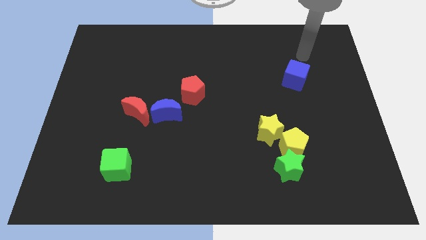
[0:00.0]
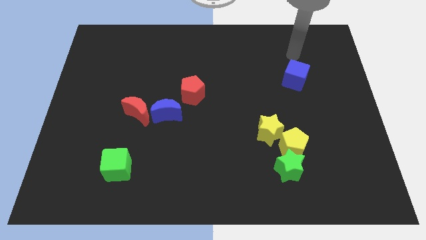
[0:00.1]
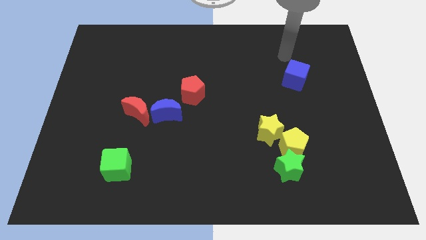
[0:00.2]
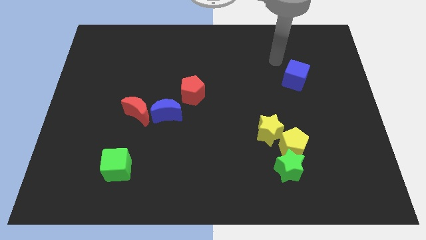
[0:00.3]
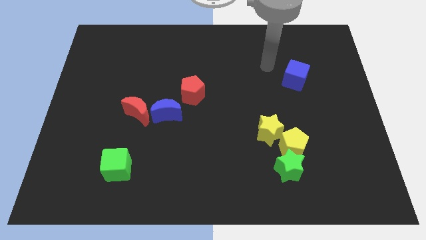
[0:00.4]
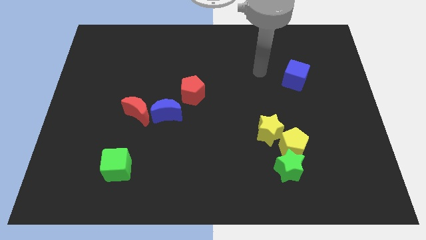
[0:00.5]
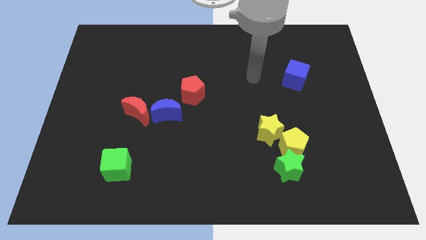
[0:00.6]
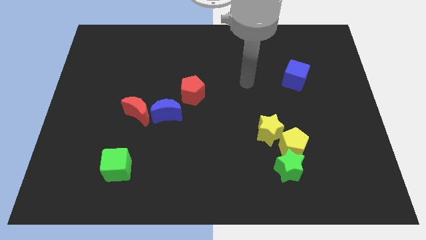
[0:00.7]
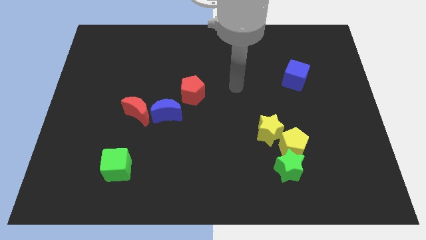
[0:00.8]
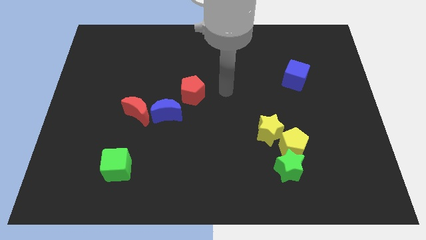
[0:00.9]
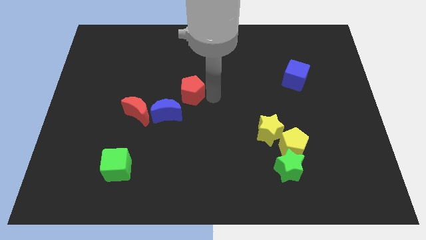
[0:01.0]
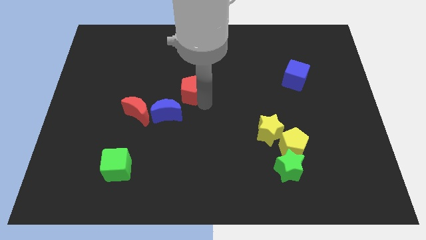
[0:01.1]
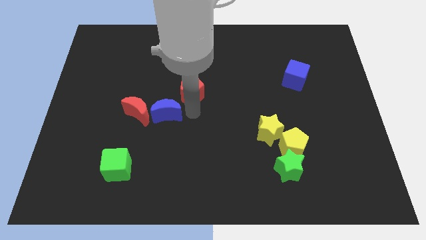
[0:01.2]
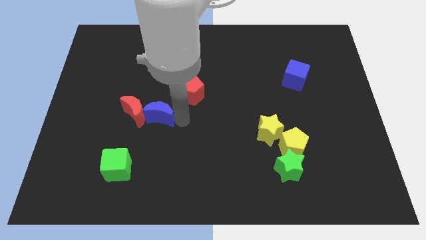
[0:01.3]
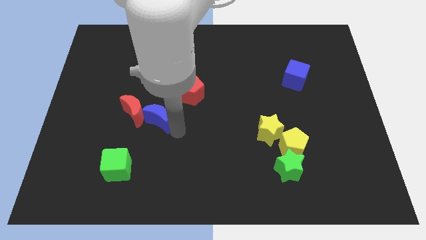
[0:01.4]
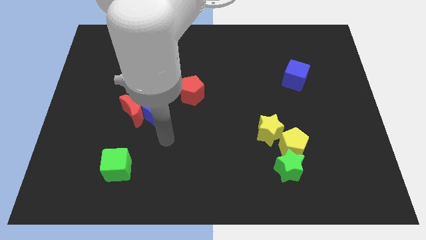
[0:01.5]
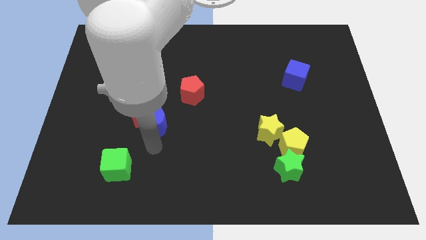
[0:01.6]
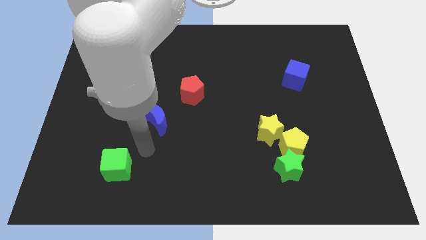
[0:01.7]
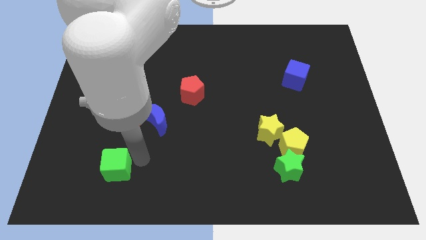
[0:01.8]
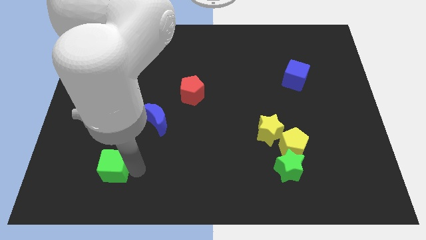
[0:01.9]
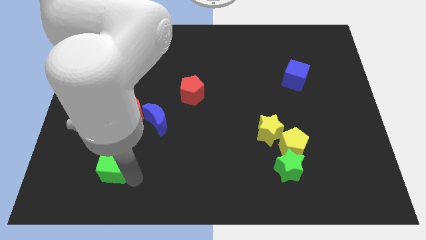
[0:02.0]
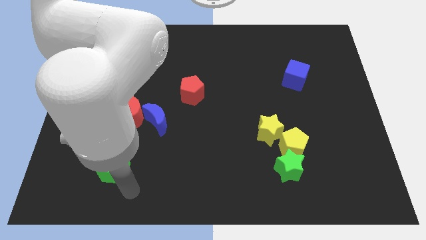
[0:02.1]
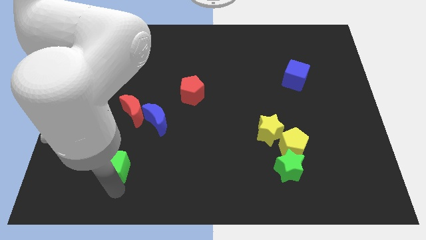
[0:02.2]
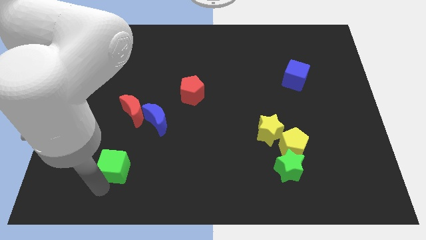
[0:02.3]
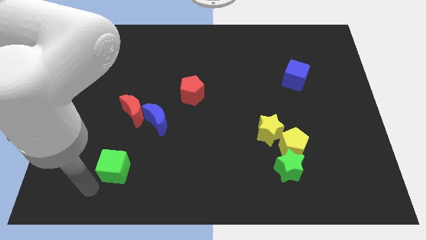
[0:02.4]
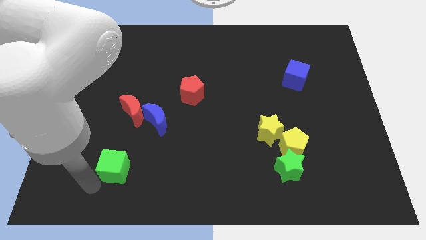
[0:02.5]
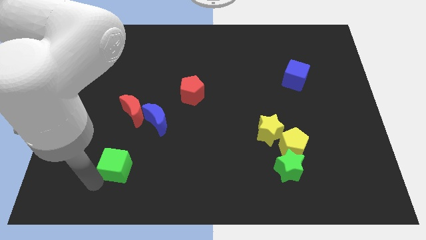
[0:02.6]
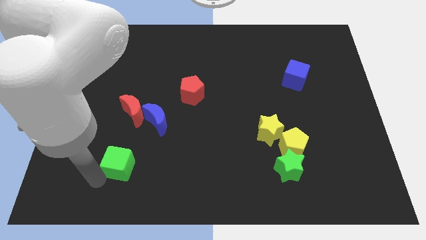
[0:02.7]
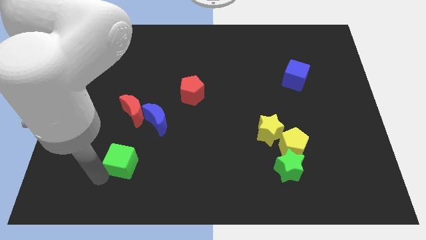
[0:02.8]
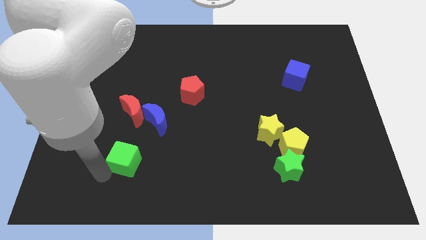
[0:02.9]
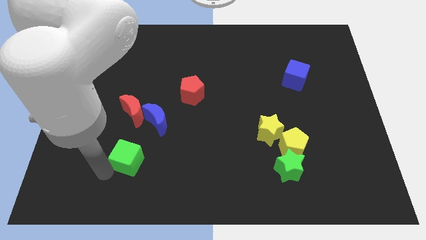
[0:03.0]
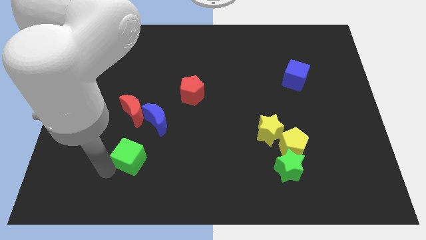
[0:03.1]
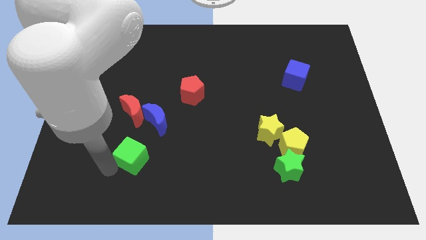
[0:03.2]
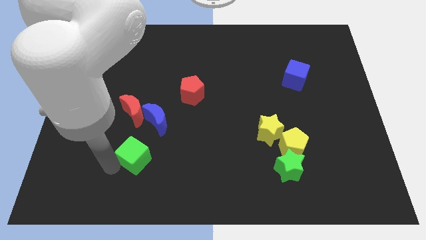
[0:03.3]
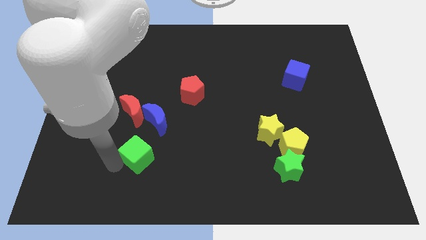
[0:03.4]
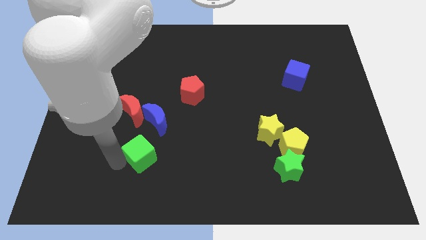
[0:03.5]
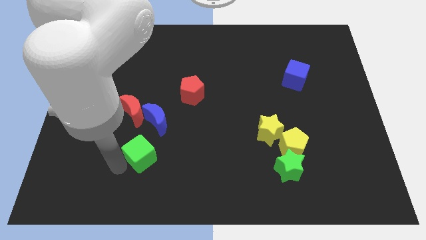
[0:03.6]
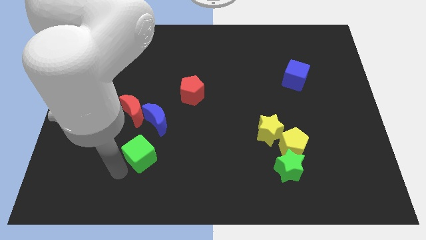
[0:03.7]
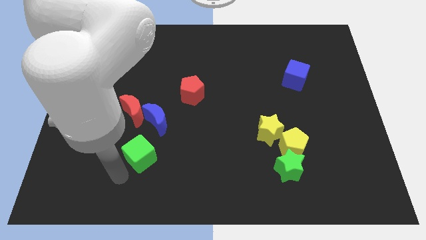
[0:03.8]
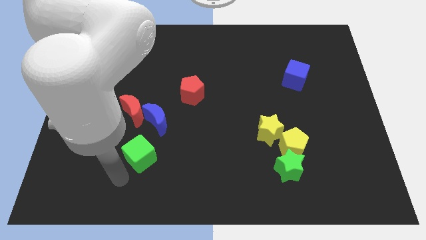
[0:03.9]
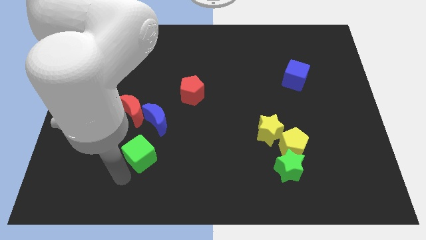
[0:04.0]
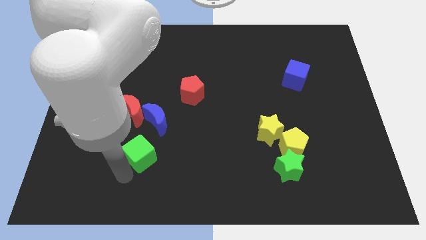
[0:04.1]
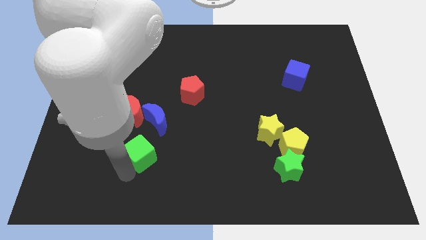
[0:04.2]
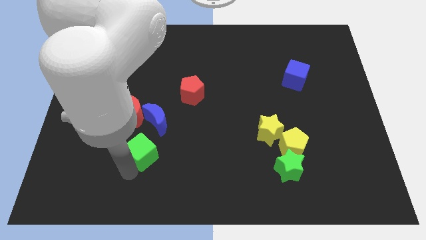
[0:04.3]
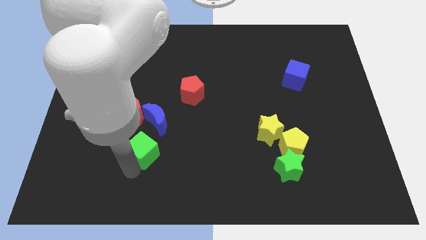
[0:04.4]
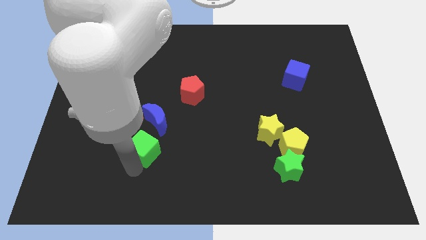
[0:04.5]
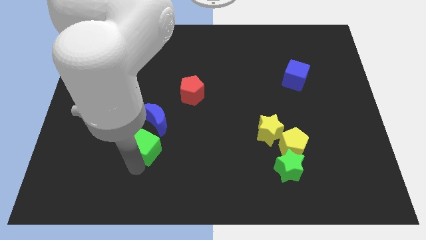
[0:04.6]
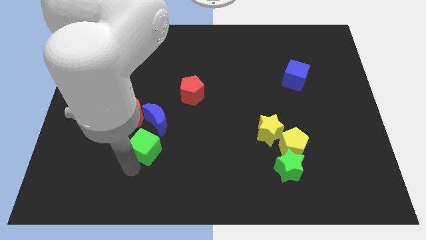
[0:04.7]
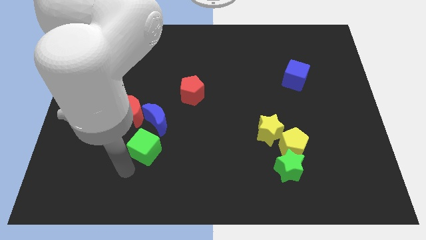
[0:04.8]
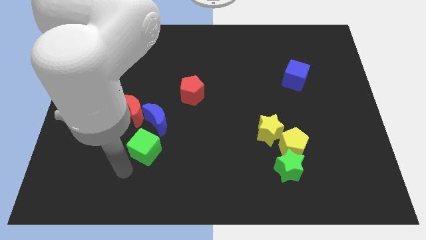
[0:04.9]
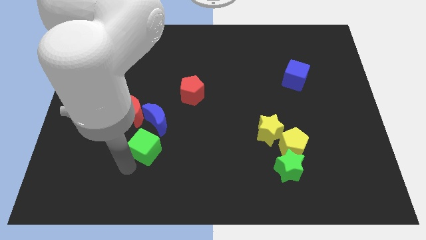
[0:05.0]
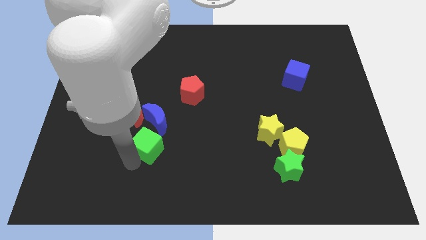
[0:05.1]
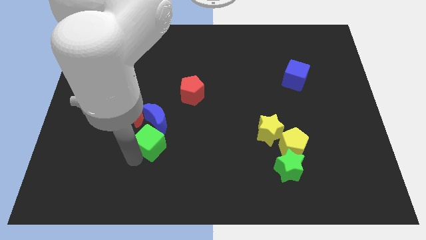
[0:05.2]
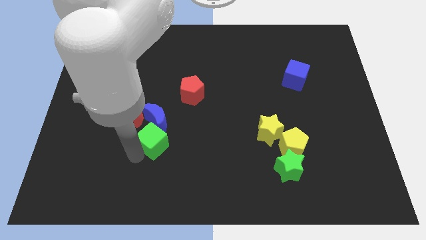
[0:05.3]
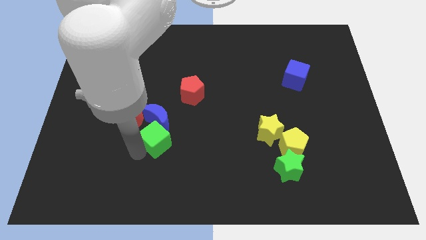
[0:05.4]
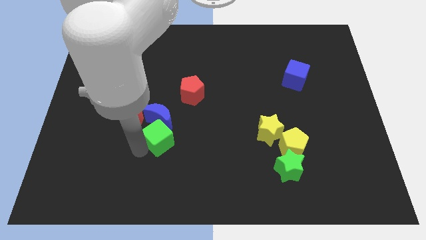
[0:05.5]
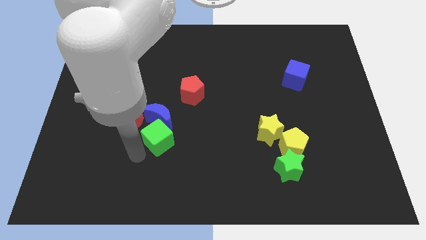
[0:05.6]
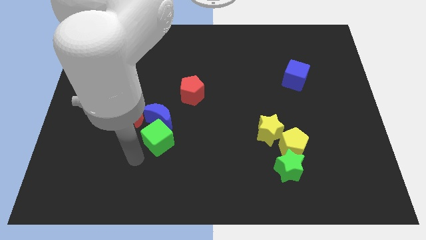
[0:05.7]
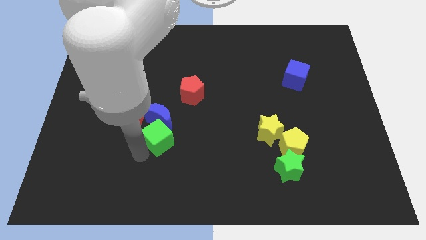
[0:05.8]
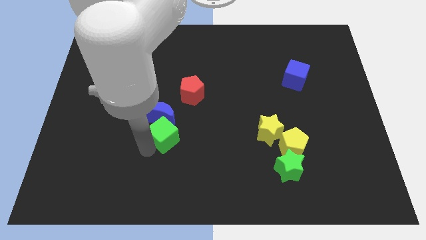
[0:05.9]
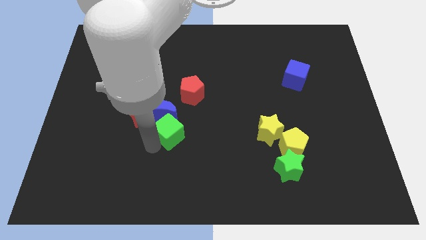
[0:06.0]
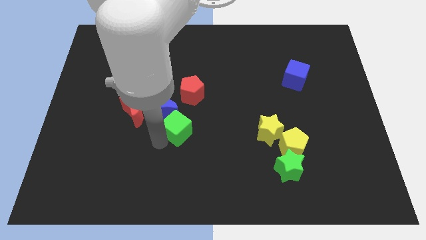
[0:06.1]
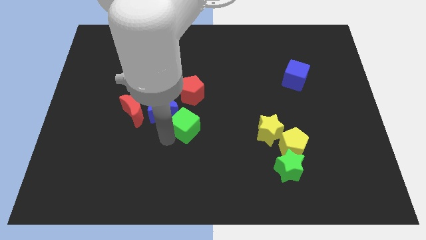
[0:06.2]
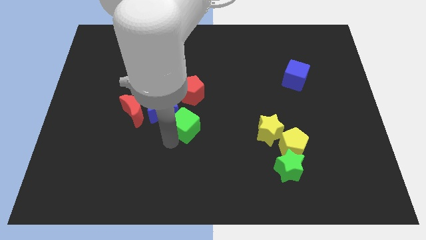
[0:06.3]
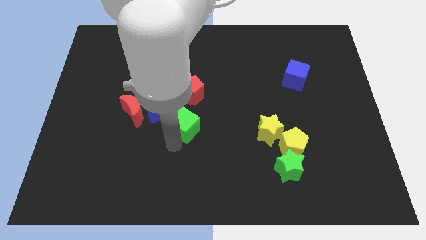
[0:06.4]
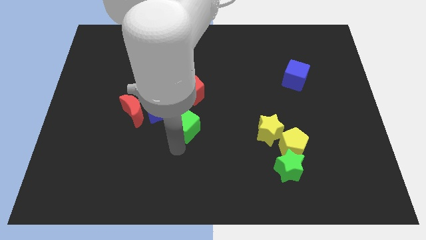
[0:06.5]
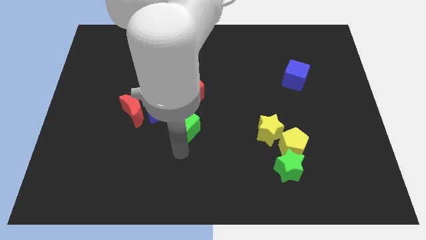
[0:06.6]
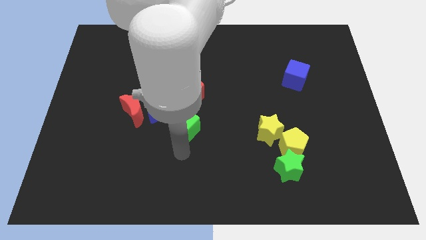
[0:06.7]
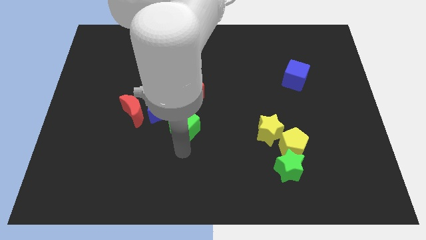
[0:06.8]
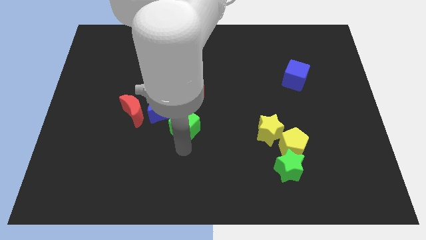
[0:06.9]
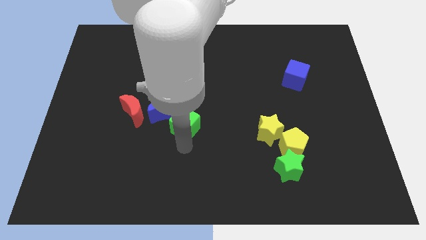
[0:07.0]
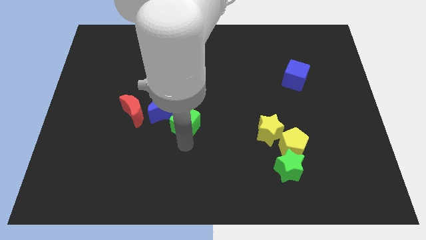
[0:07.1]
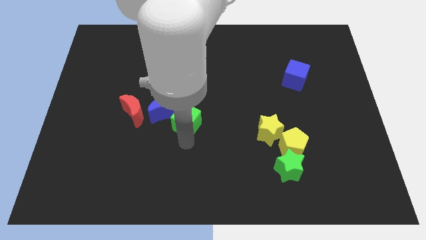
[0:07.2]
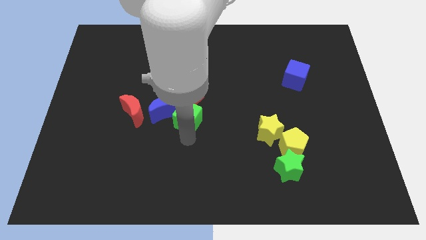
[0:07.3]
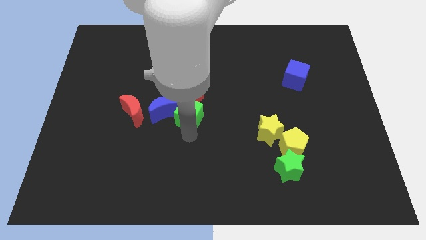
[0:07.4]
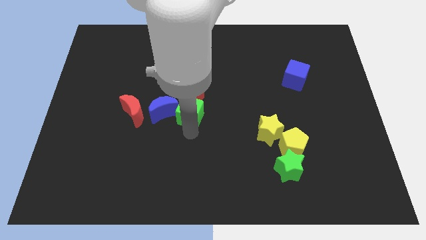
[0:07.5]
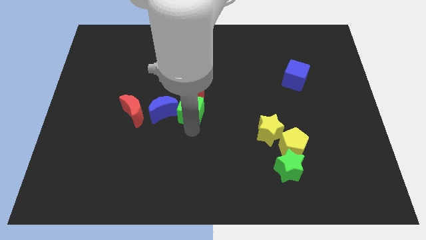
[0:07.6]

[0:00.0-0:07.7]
put the green cube close to the red pentagon
